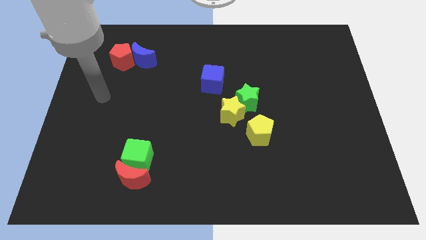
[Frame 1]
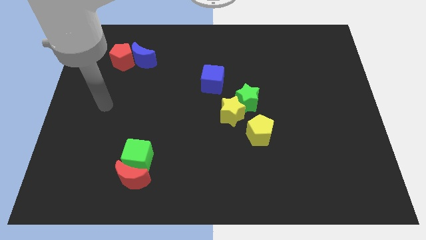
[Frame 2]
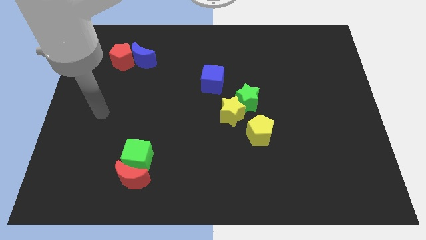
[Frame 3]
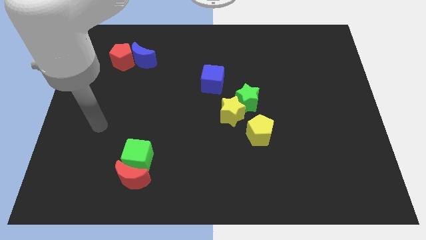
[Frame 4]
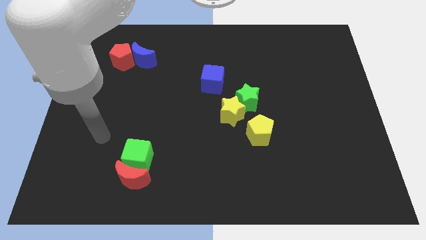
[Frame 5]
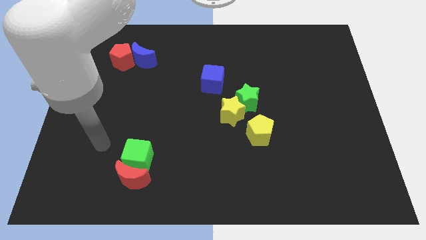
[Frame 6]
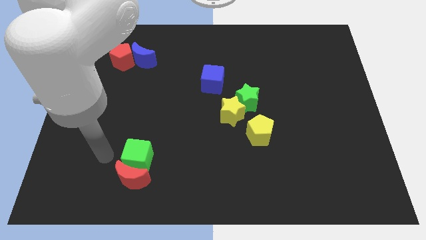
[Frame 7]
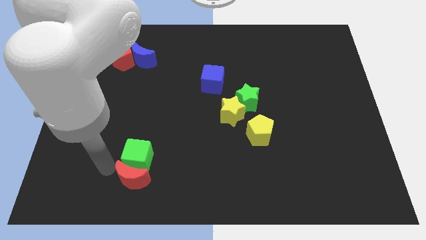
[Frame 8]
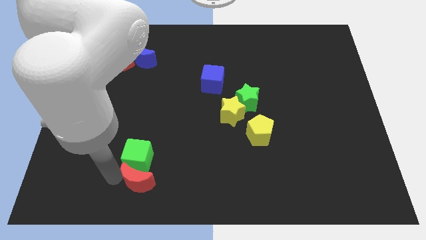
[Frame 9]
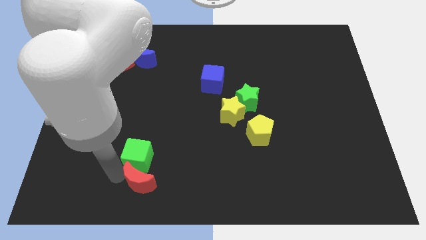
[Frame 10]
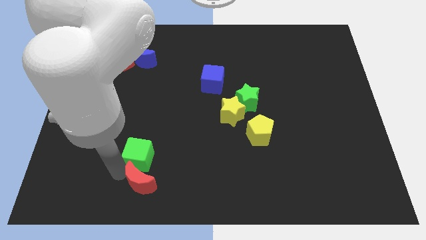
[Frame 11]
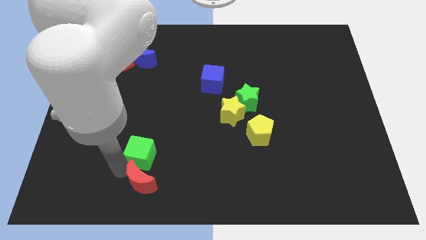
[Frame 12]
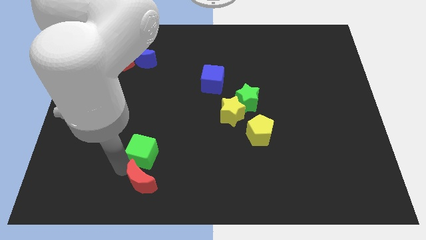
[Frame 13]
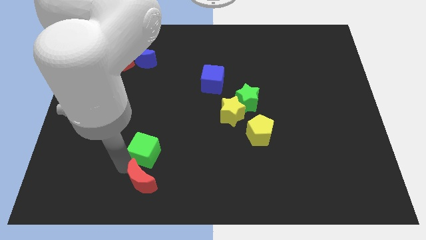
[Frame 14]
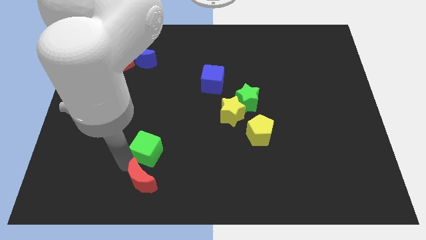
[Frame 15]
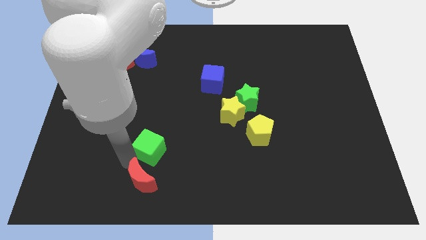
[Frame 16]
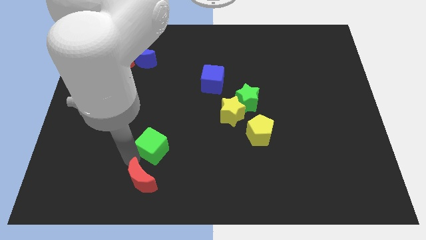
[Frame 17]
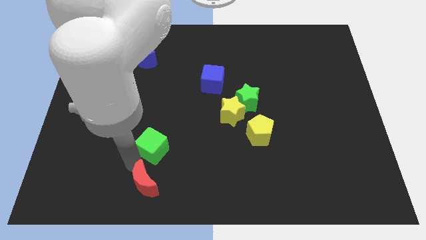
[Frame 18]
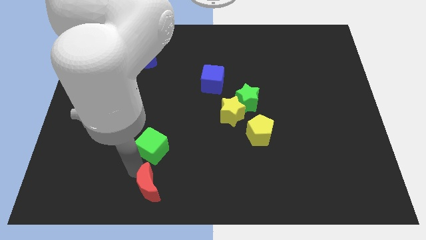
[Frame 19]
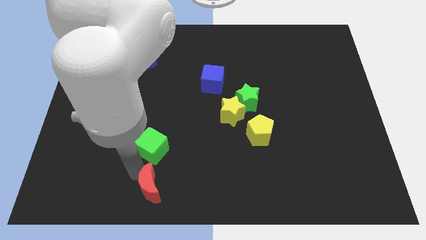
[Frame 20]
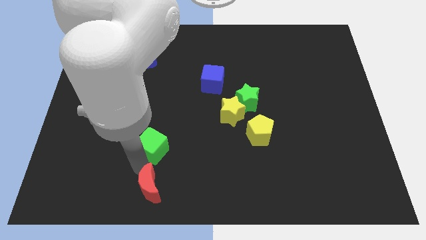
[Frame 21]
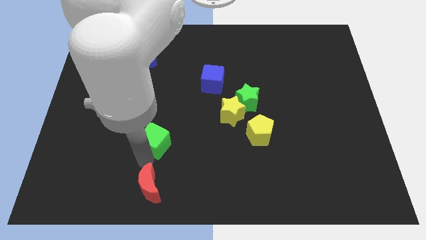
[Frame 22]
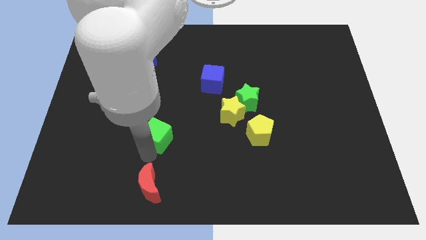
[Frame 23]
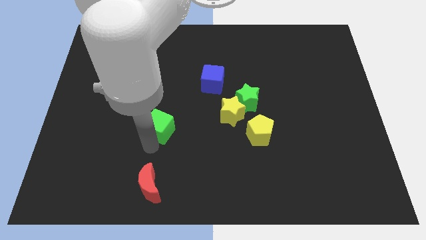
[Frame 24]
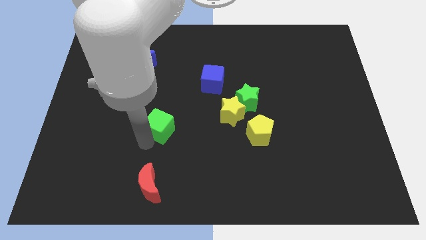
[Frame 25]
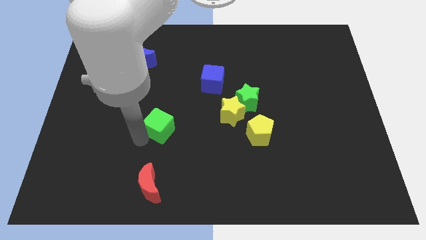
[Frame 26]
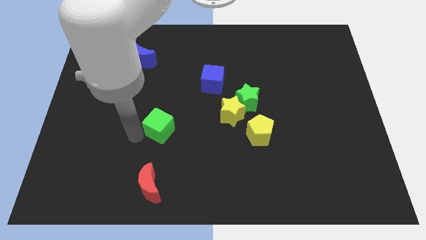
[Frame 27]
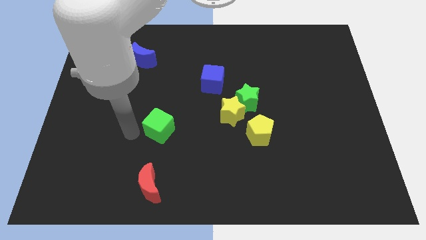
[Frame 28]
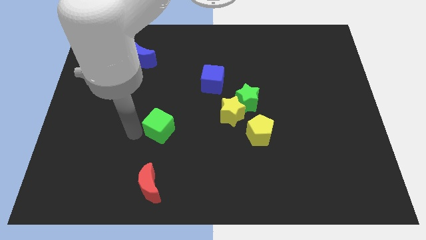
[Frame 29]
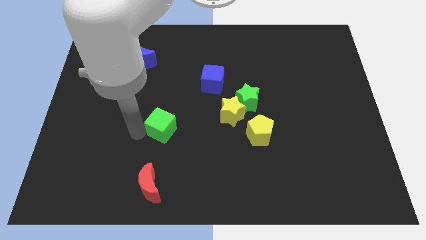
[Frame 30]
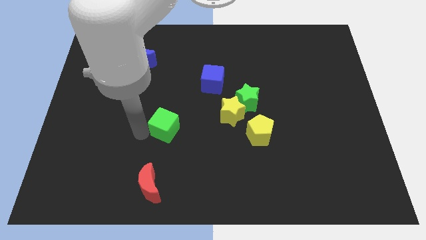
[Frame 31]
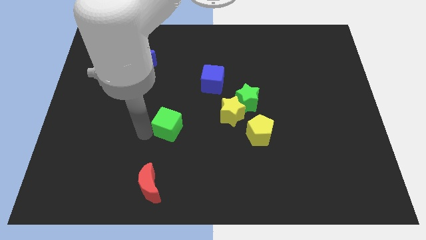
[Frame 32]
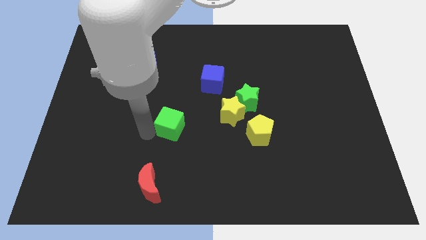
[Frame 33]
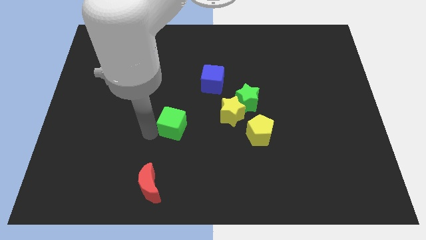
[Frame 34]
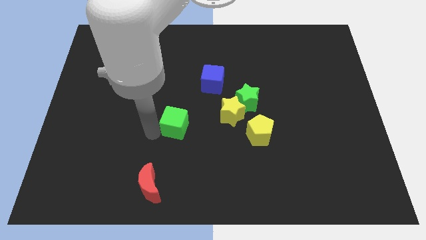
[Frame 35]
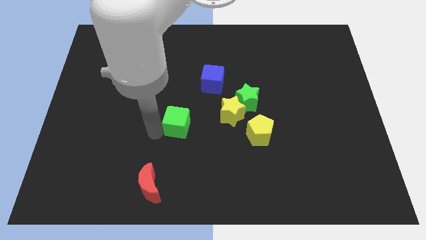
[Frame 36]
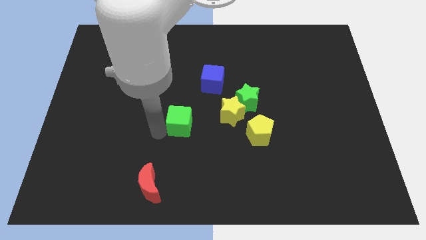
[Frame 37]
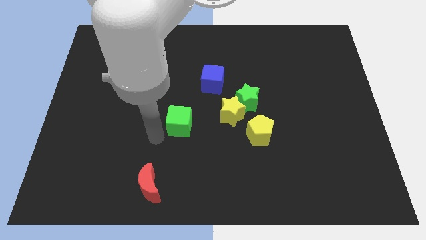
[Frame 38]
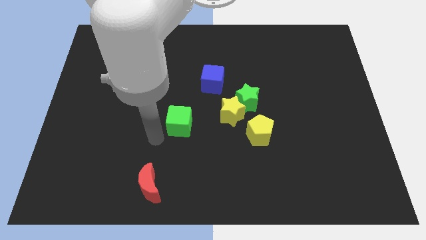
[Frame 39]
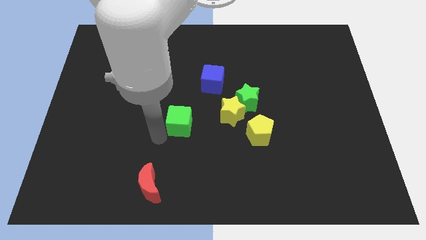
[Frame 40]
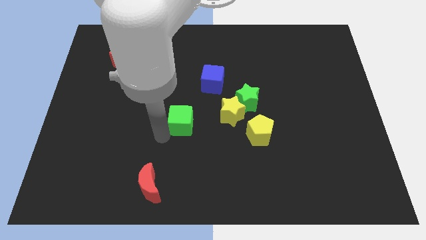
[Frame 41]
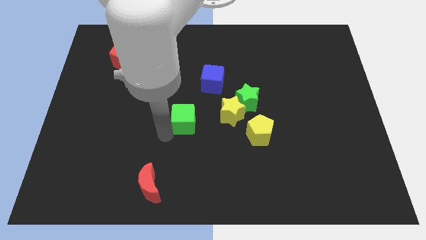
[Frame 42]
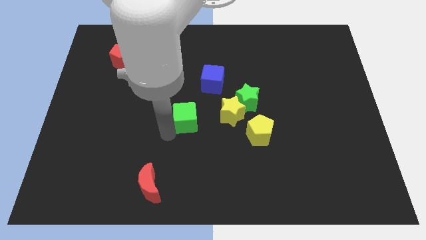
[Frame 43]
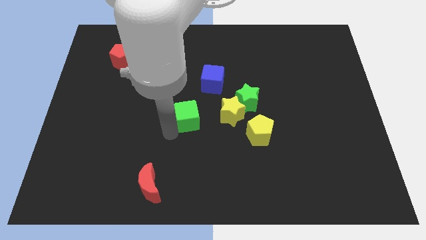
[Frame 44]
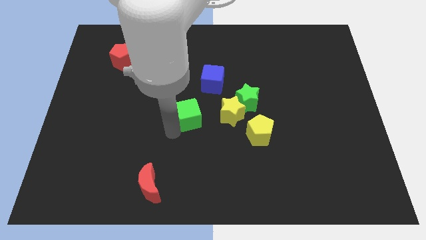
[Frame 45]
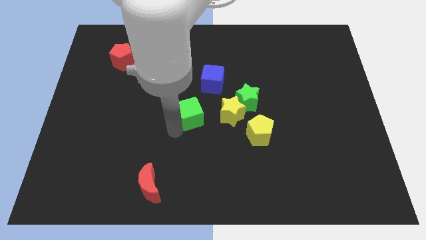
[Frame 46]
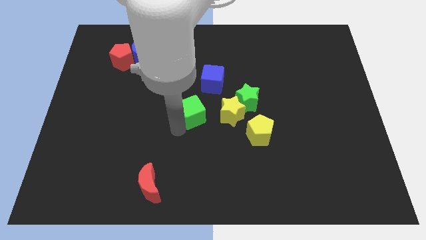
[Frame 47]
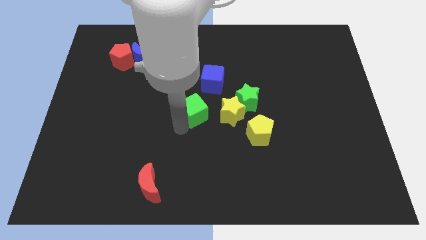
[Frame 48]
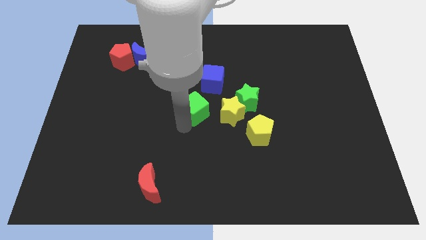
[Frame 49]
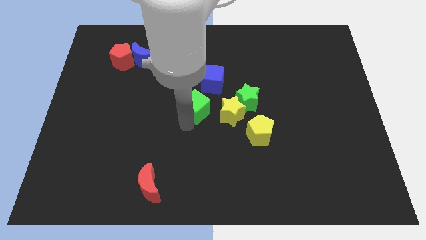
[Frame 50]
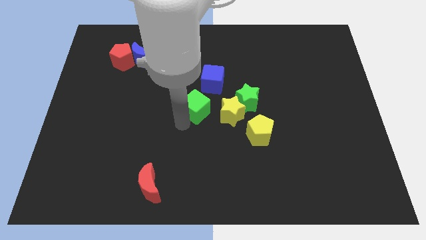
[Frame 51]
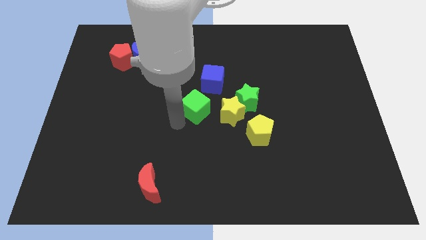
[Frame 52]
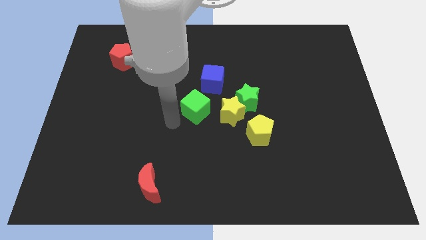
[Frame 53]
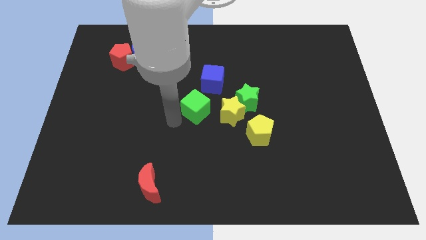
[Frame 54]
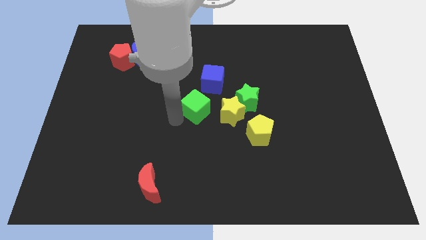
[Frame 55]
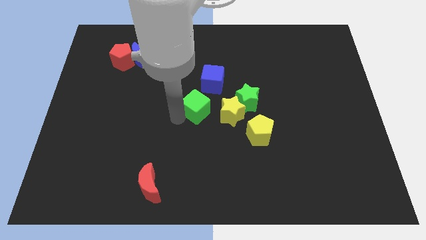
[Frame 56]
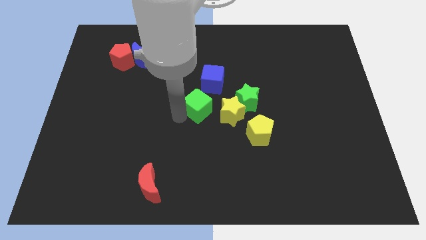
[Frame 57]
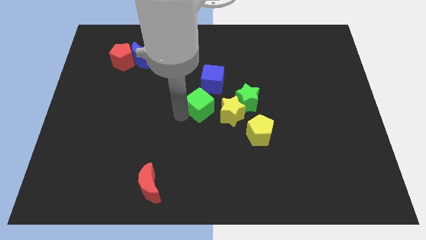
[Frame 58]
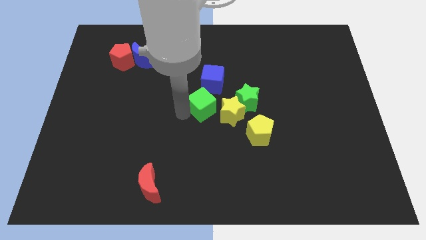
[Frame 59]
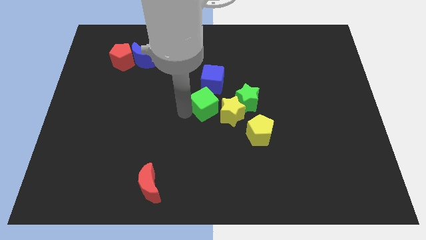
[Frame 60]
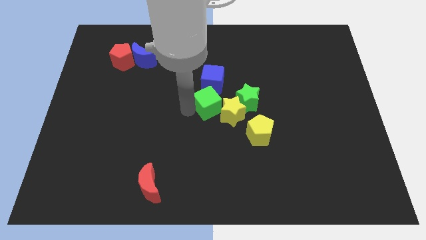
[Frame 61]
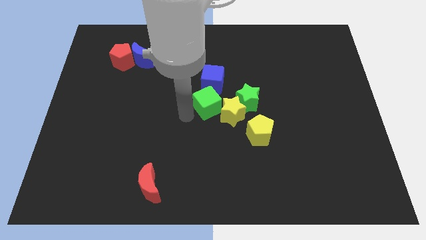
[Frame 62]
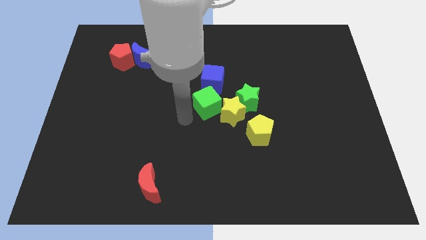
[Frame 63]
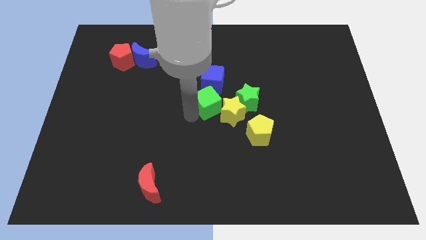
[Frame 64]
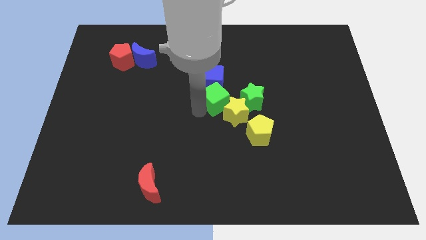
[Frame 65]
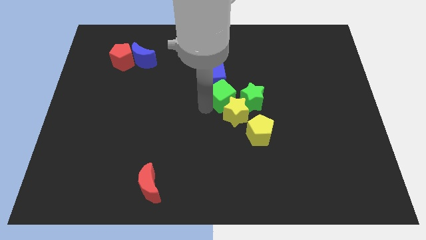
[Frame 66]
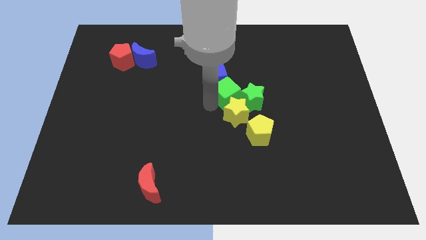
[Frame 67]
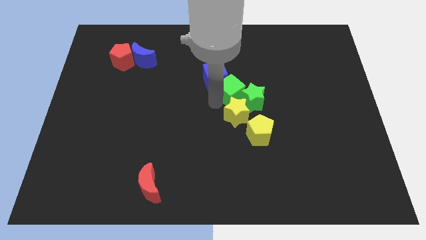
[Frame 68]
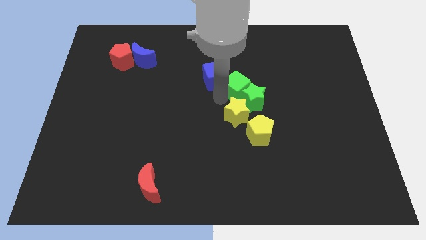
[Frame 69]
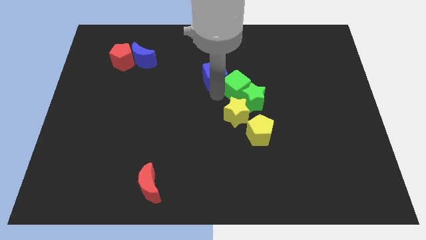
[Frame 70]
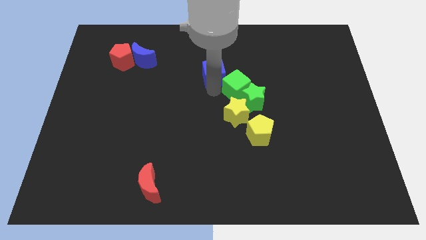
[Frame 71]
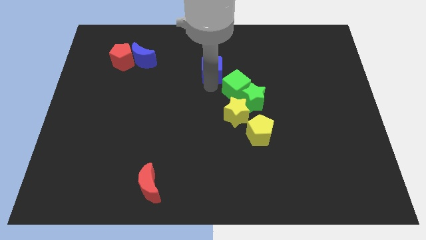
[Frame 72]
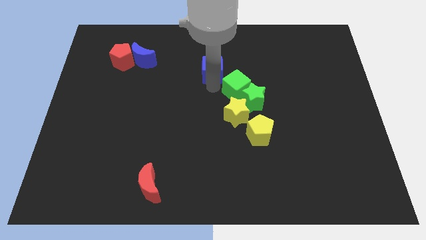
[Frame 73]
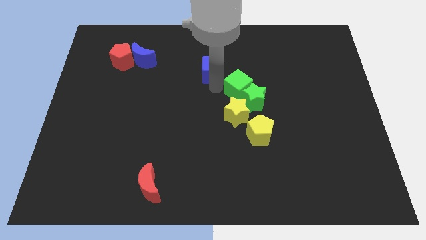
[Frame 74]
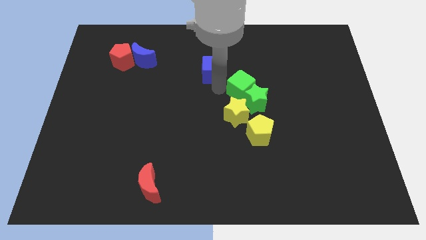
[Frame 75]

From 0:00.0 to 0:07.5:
push the green cube diagonally up and to the right of the yellow star
